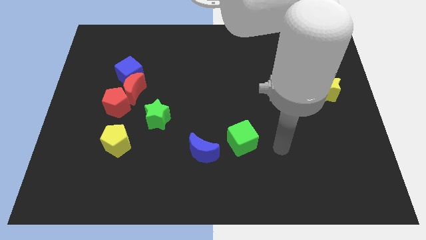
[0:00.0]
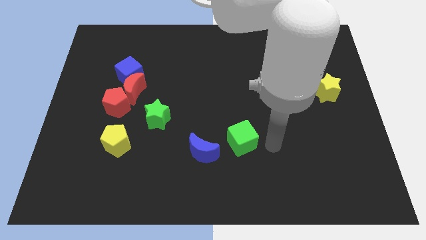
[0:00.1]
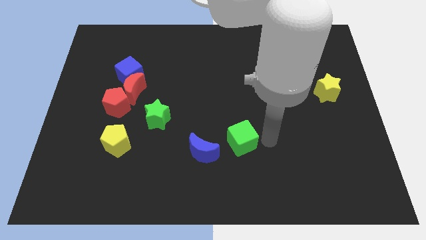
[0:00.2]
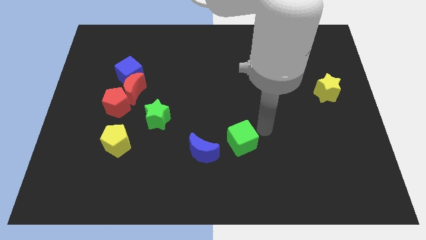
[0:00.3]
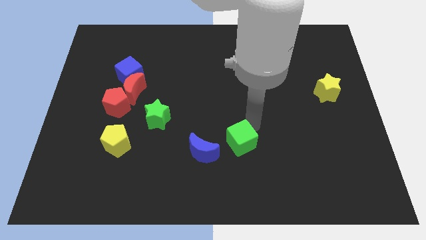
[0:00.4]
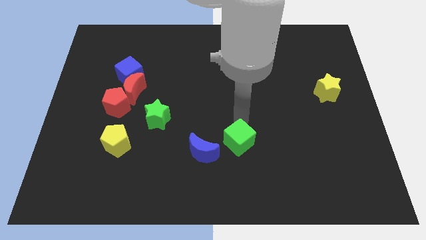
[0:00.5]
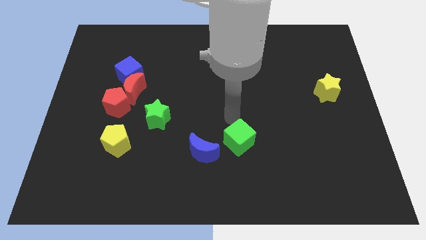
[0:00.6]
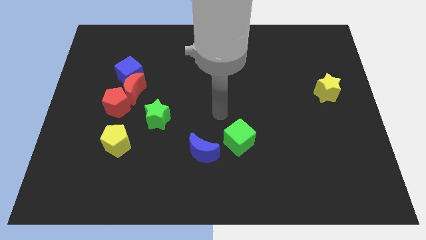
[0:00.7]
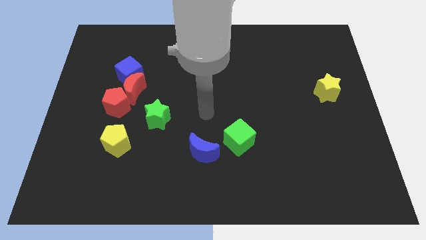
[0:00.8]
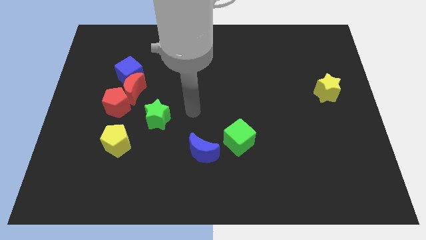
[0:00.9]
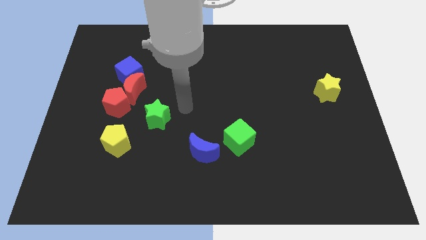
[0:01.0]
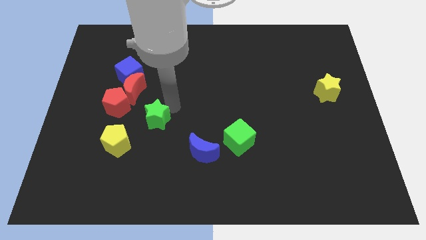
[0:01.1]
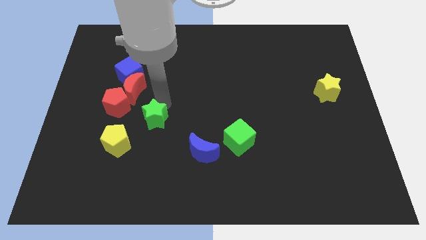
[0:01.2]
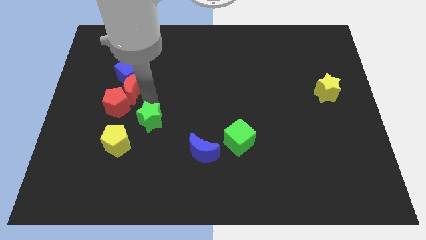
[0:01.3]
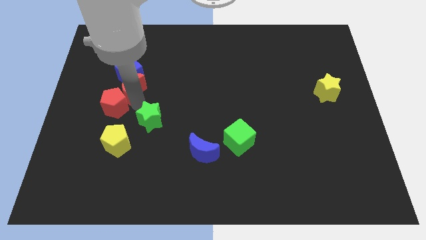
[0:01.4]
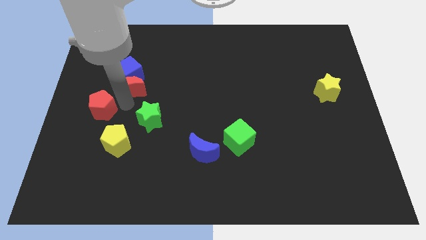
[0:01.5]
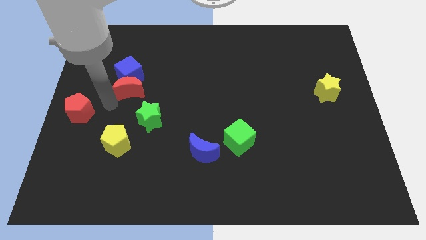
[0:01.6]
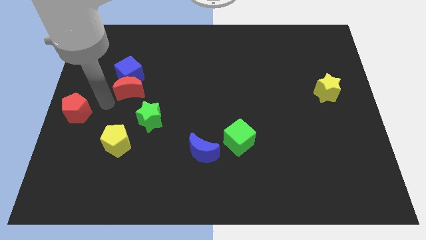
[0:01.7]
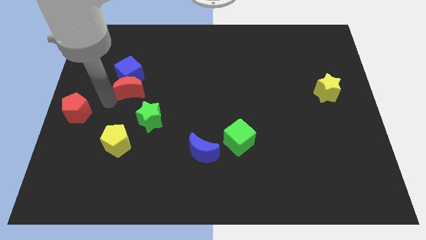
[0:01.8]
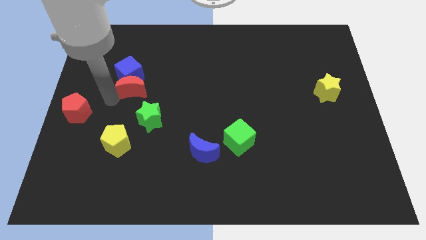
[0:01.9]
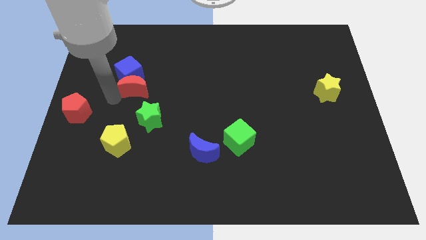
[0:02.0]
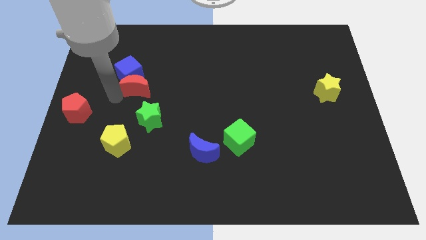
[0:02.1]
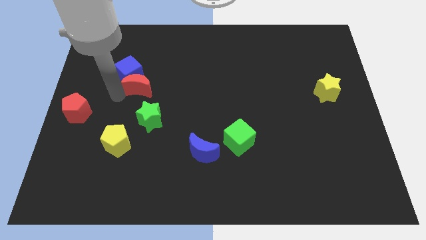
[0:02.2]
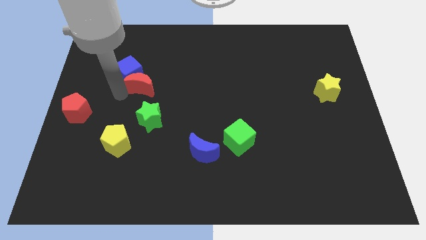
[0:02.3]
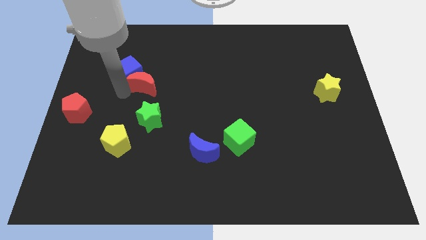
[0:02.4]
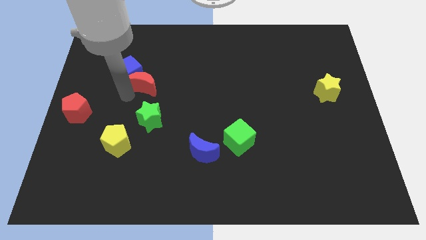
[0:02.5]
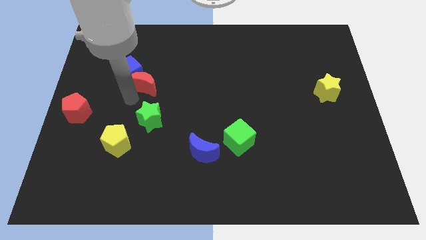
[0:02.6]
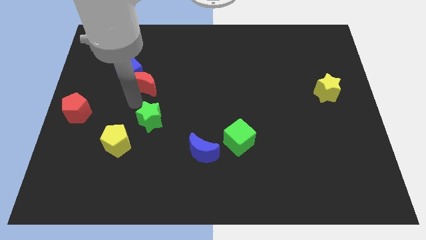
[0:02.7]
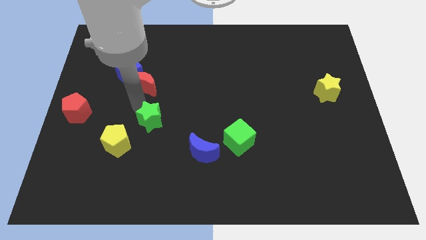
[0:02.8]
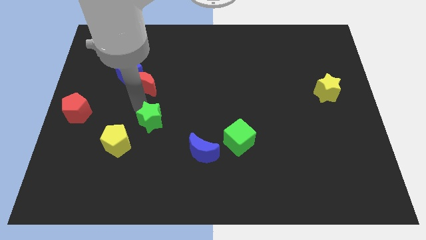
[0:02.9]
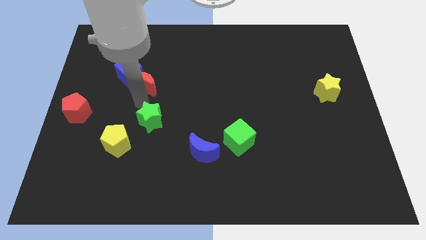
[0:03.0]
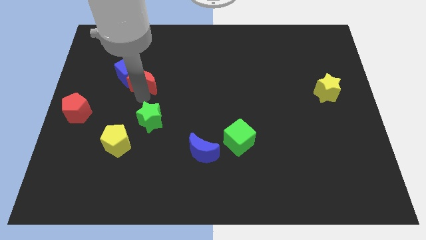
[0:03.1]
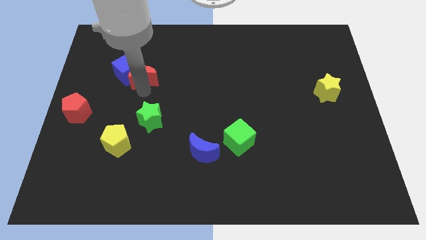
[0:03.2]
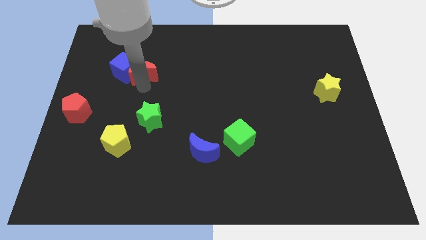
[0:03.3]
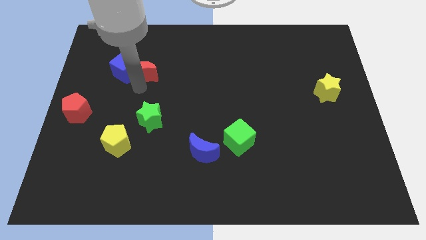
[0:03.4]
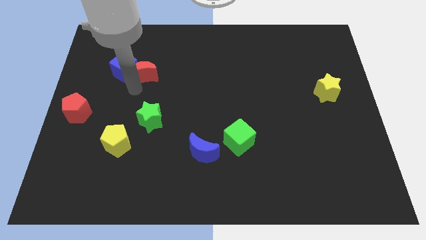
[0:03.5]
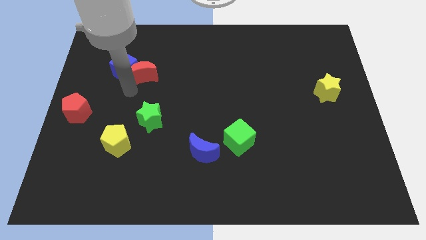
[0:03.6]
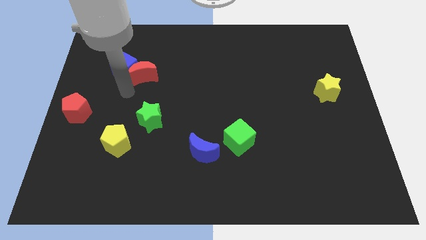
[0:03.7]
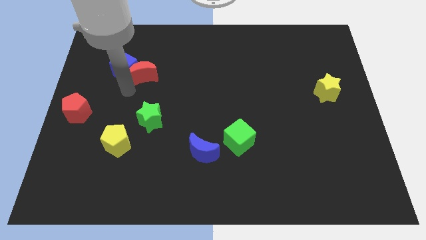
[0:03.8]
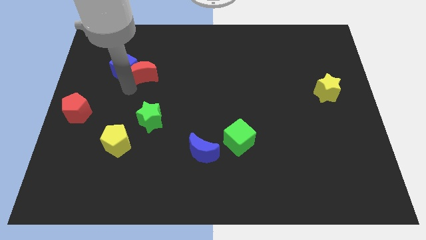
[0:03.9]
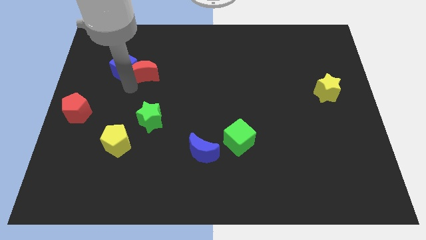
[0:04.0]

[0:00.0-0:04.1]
move the red moon away from the clump

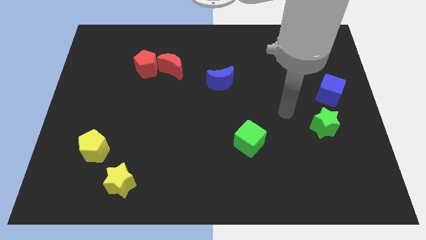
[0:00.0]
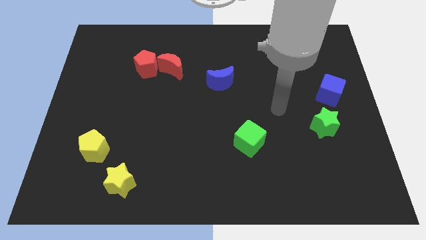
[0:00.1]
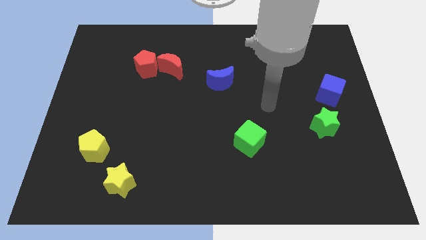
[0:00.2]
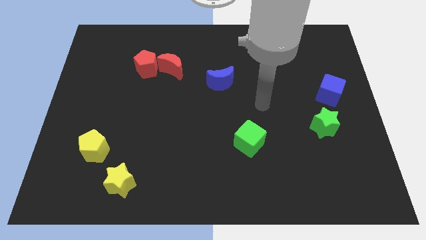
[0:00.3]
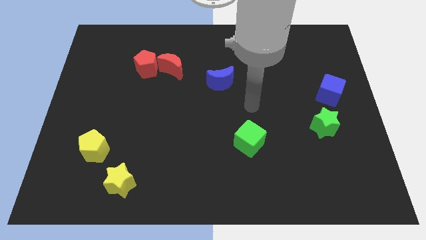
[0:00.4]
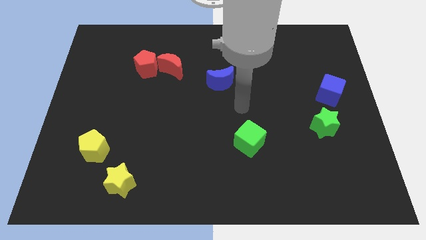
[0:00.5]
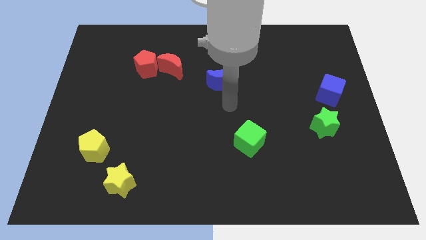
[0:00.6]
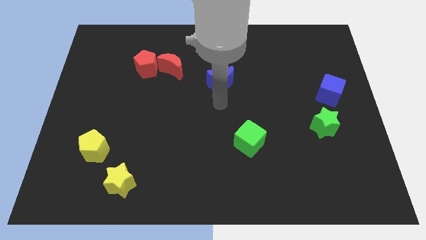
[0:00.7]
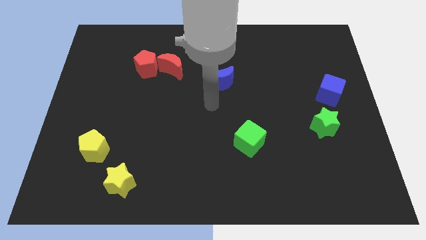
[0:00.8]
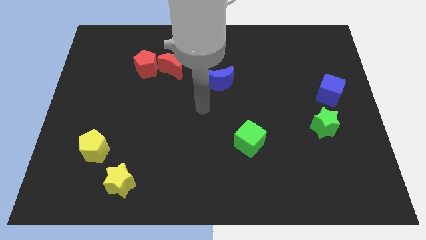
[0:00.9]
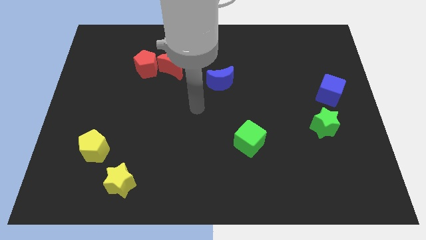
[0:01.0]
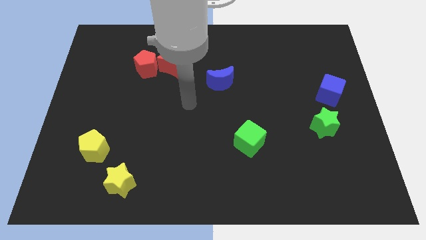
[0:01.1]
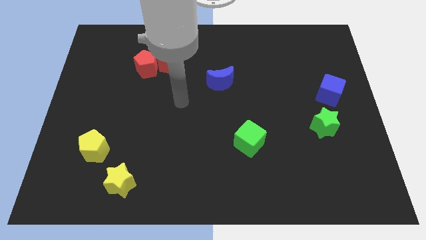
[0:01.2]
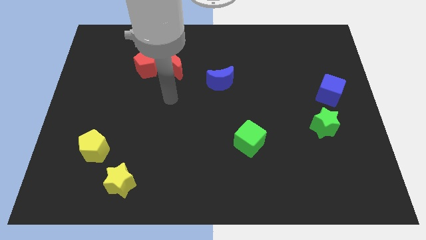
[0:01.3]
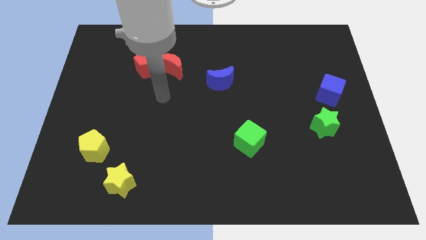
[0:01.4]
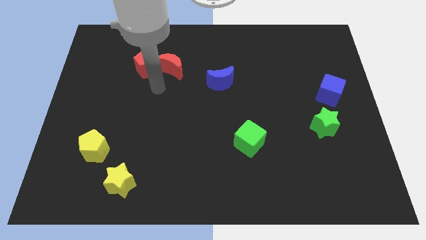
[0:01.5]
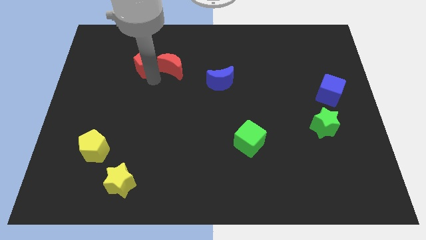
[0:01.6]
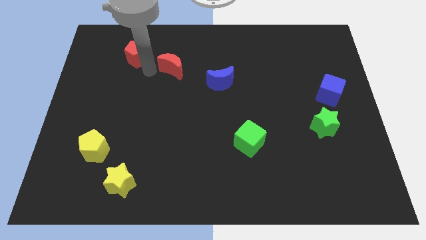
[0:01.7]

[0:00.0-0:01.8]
separate the red moon from the red pentagon

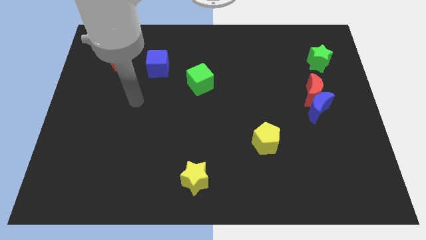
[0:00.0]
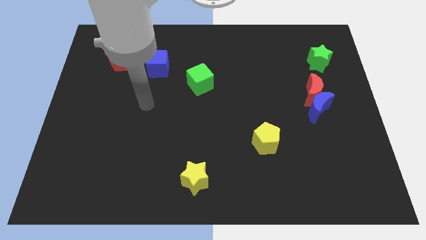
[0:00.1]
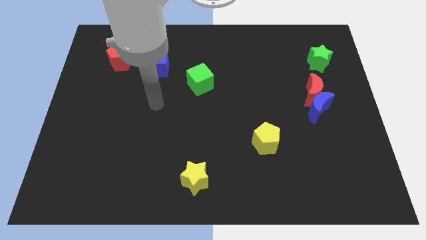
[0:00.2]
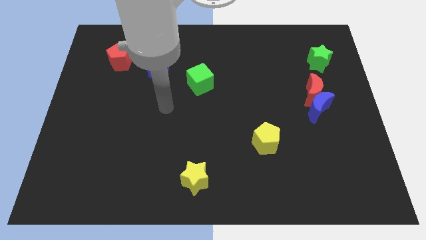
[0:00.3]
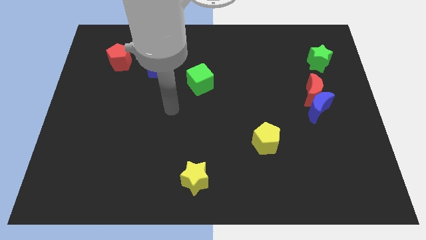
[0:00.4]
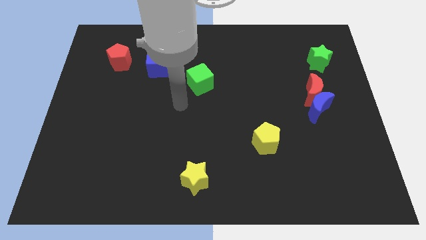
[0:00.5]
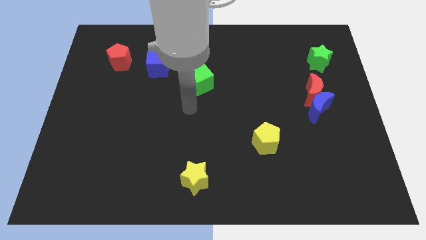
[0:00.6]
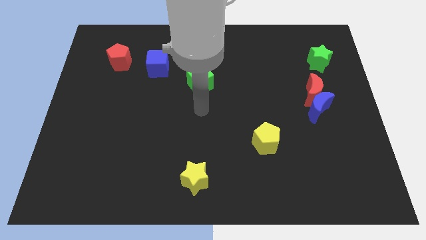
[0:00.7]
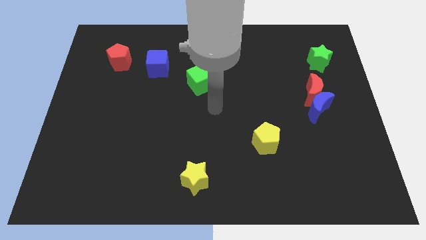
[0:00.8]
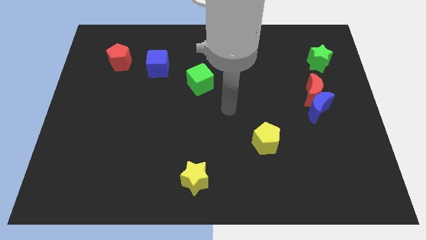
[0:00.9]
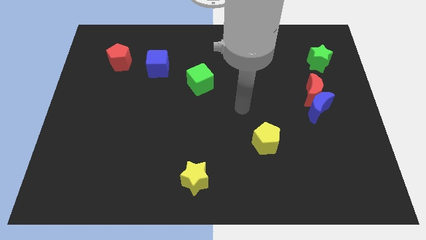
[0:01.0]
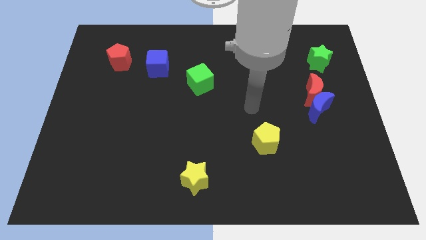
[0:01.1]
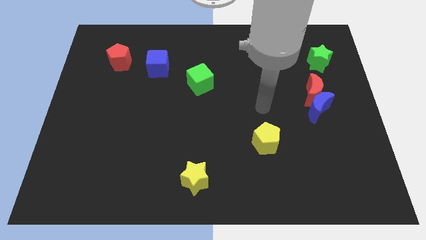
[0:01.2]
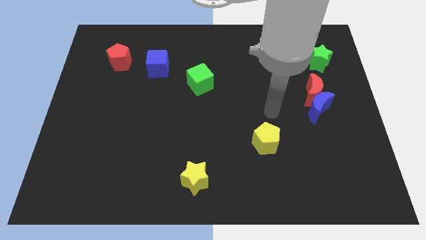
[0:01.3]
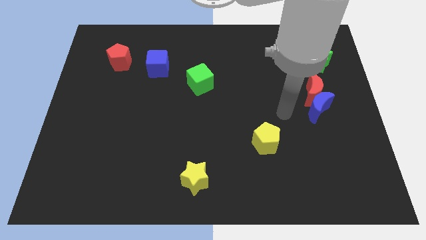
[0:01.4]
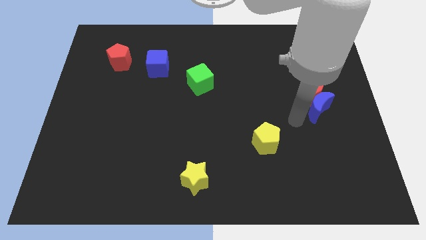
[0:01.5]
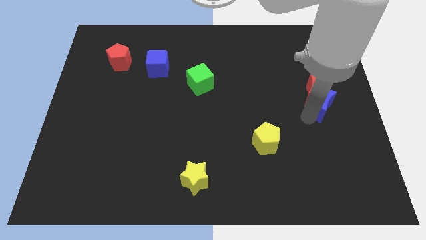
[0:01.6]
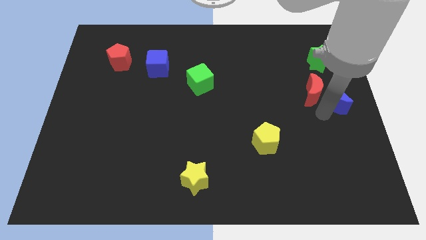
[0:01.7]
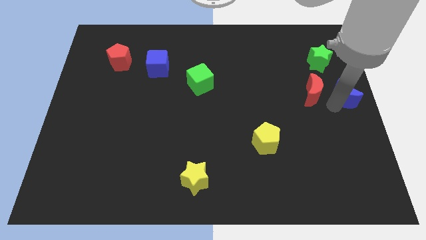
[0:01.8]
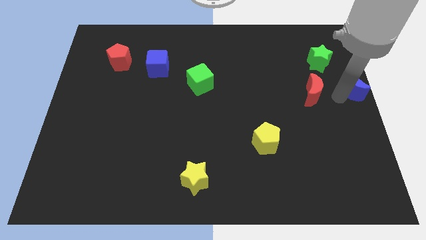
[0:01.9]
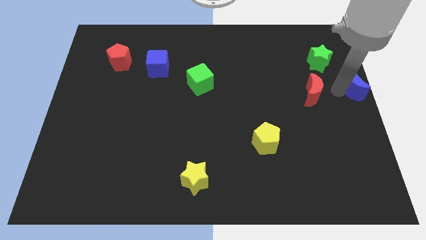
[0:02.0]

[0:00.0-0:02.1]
pull the red moon apart from the blue moon

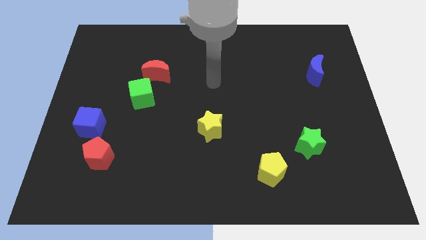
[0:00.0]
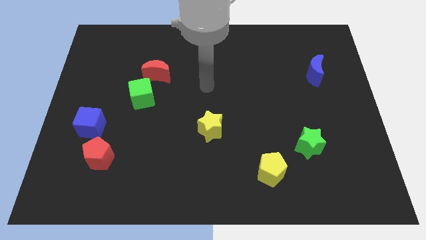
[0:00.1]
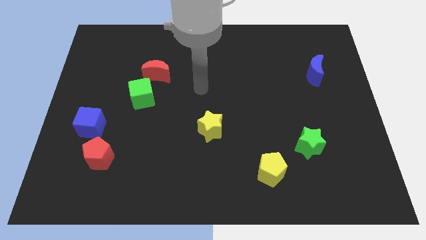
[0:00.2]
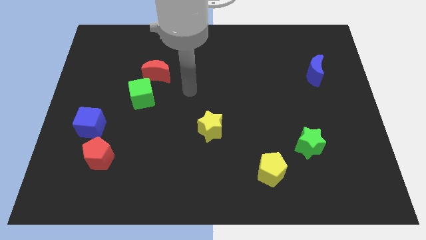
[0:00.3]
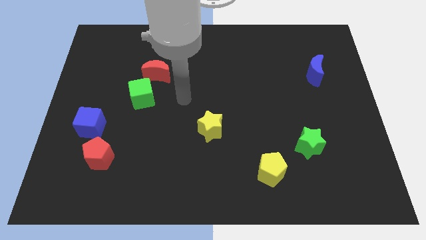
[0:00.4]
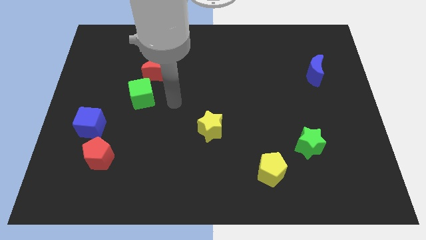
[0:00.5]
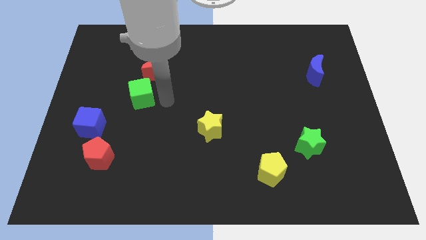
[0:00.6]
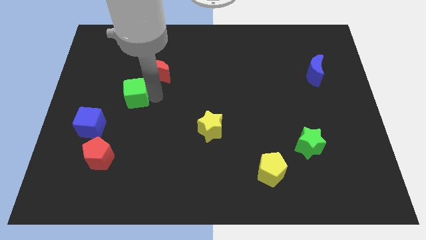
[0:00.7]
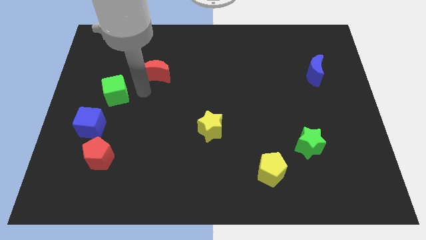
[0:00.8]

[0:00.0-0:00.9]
move the red moon away from the green cube

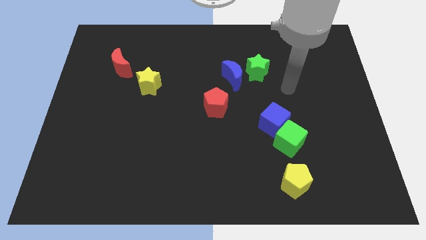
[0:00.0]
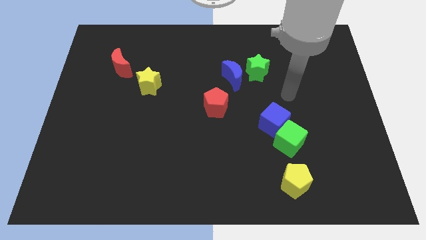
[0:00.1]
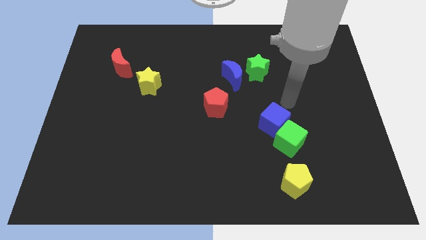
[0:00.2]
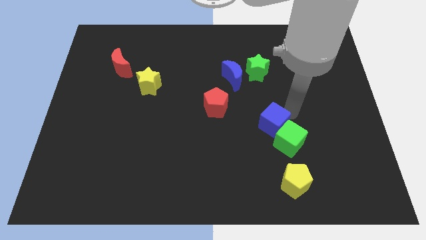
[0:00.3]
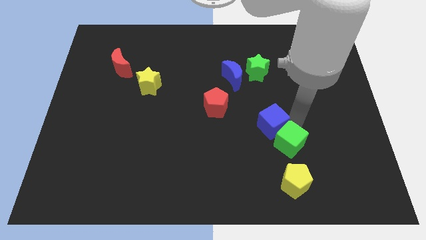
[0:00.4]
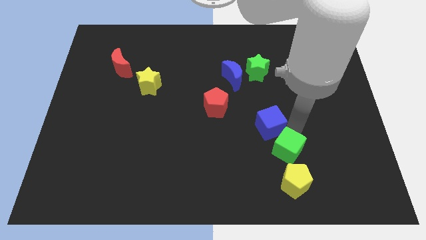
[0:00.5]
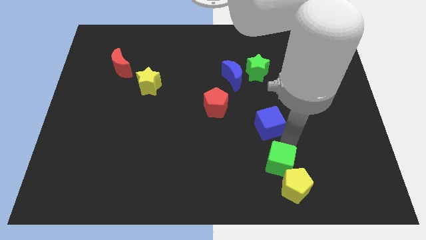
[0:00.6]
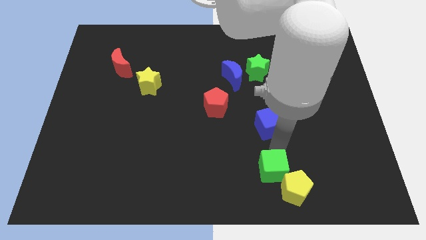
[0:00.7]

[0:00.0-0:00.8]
move the blue cube away from the green cube
